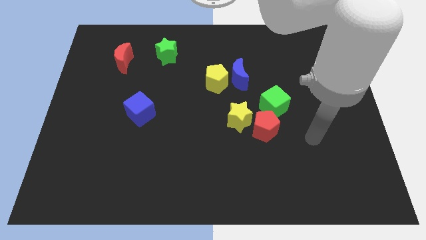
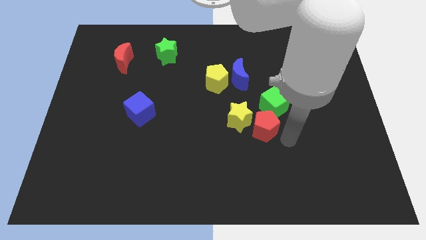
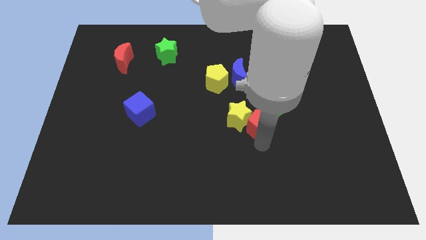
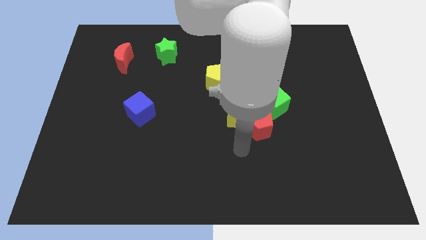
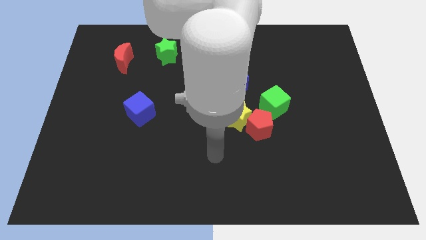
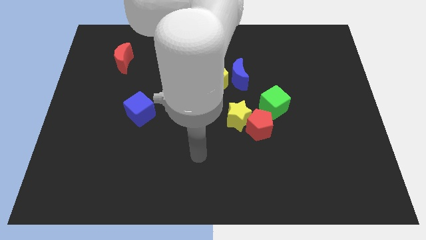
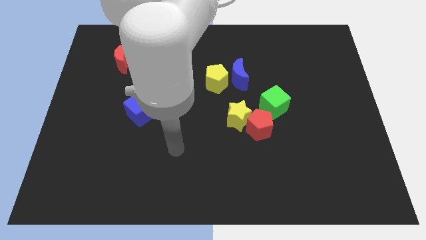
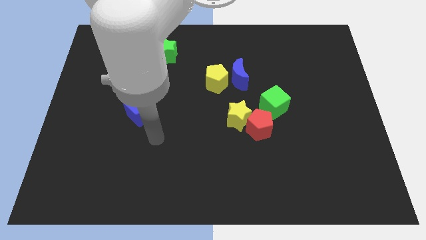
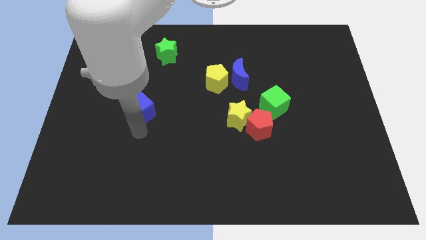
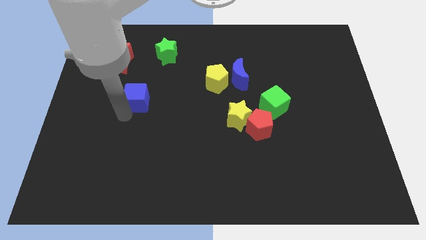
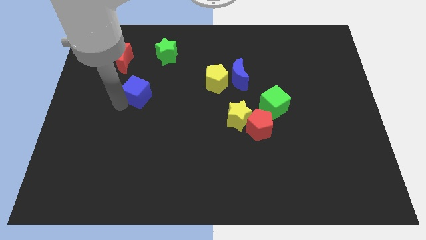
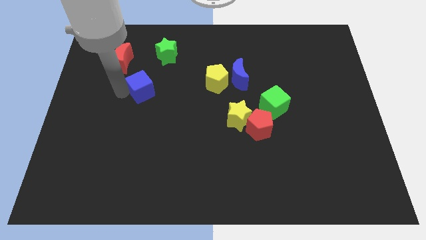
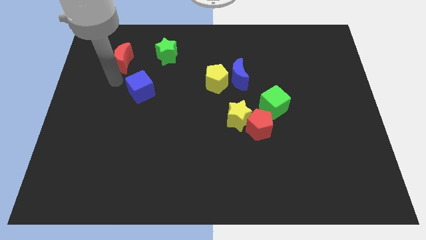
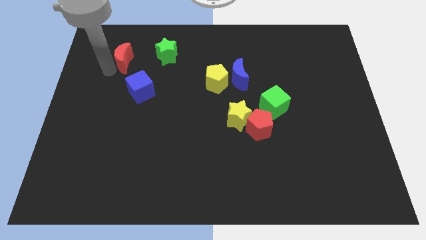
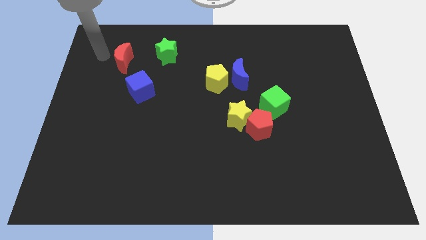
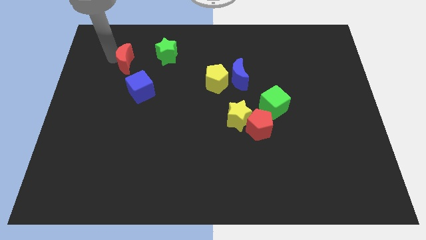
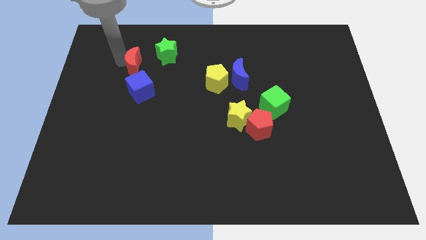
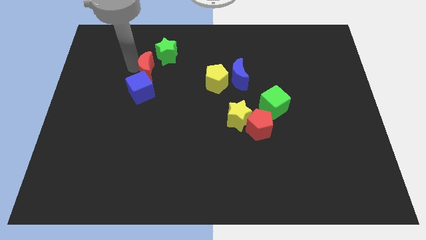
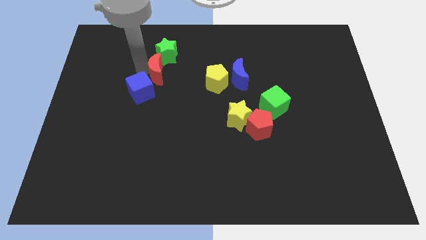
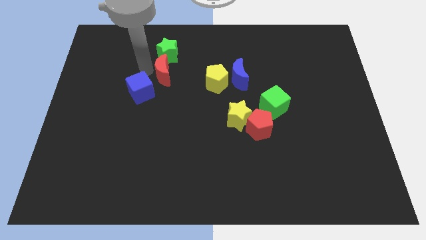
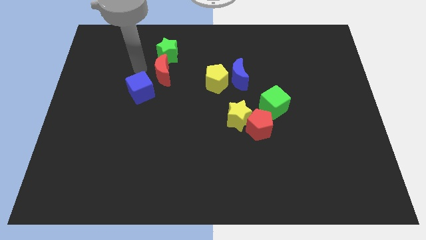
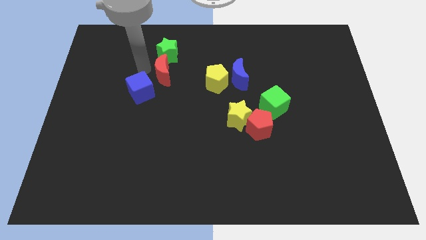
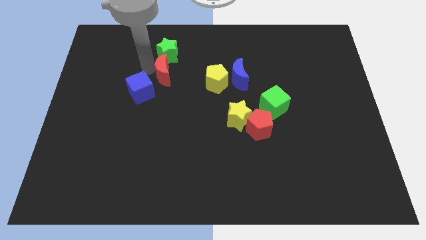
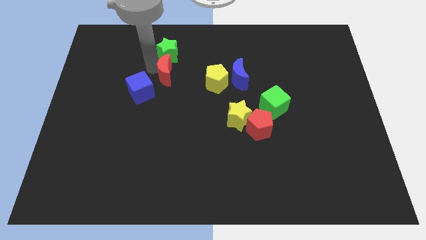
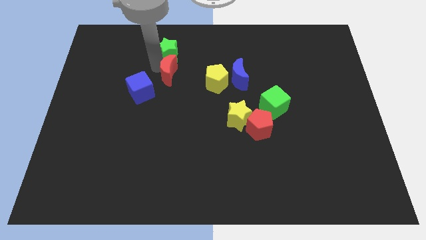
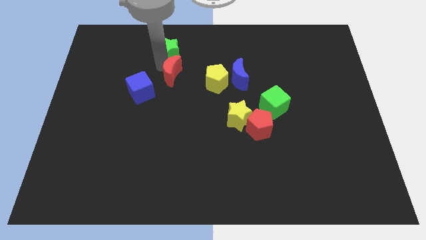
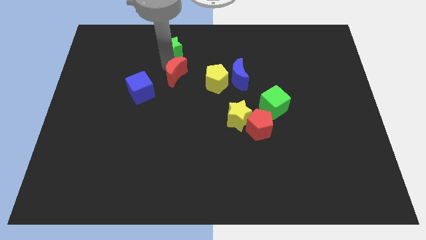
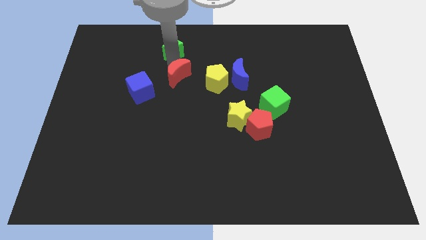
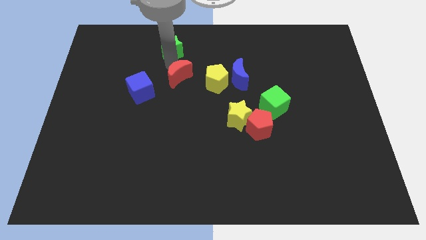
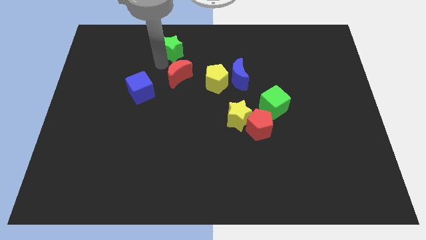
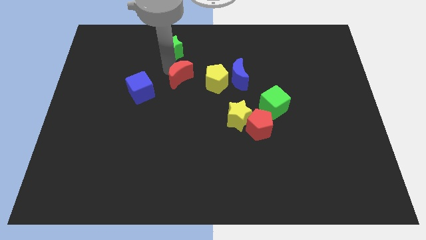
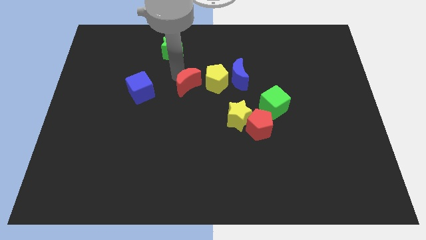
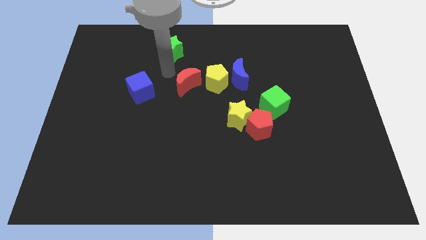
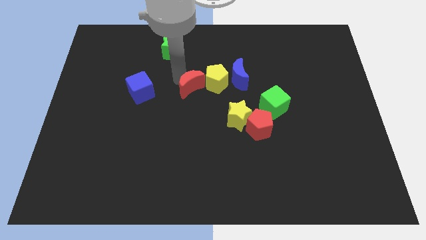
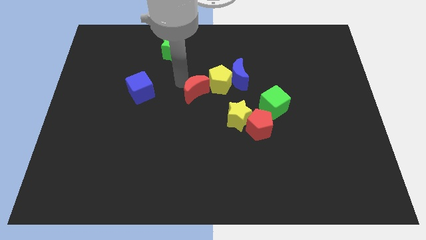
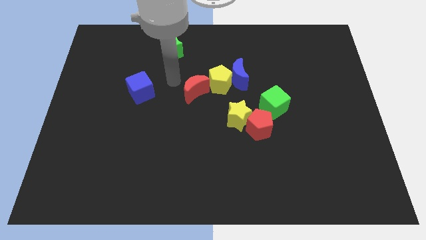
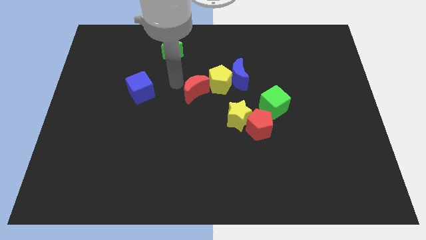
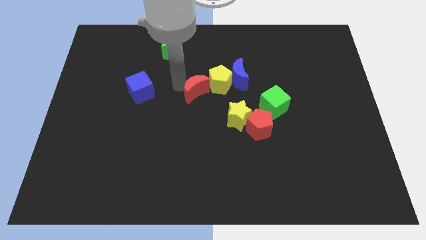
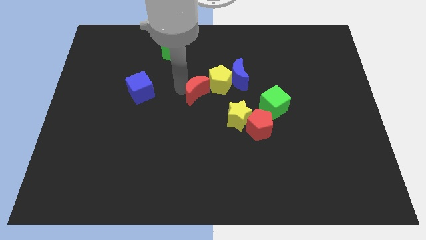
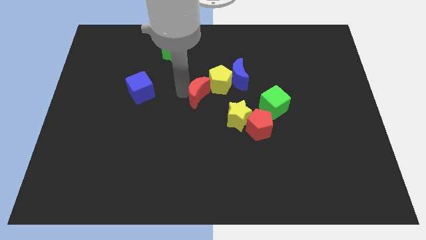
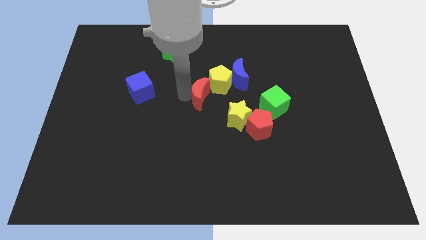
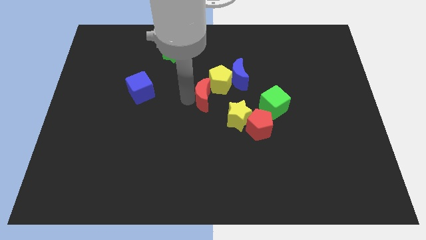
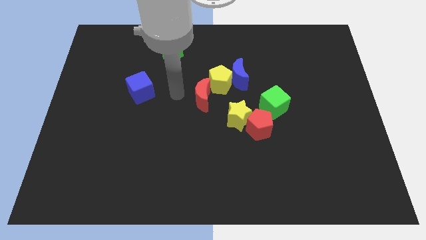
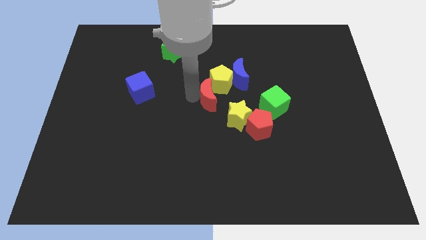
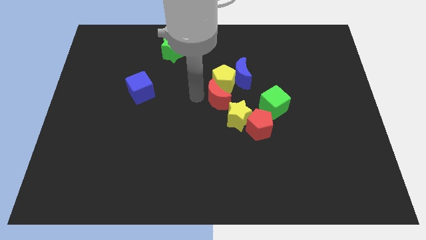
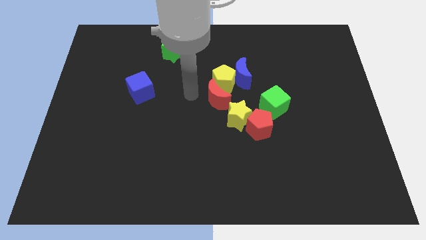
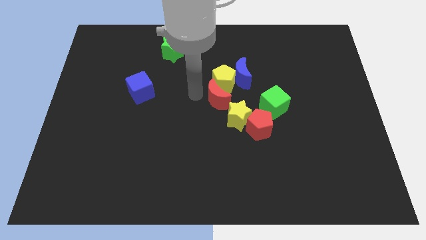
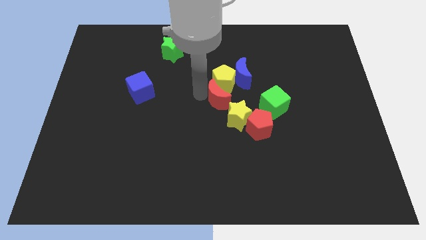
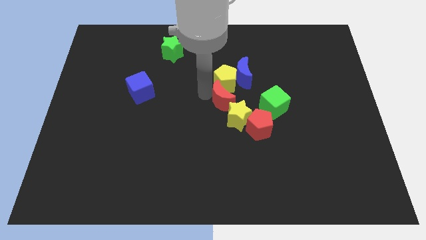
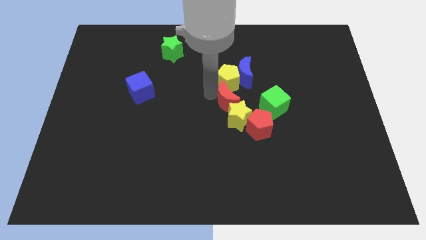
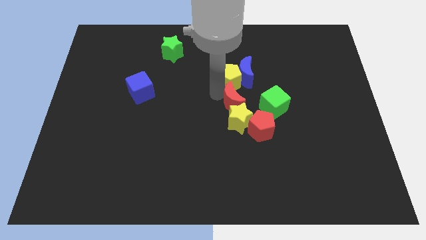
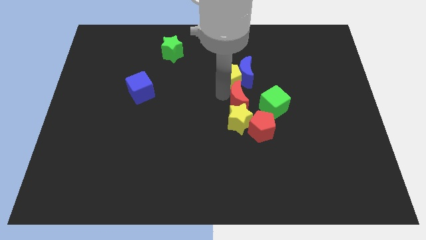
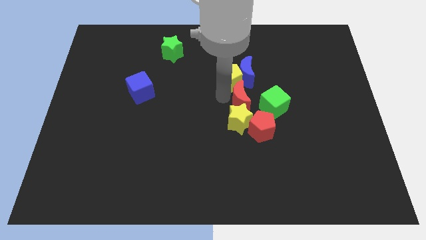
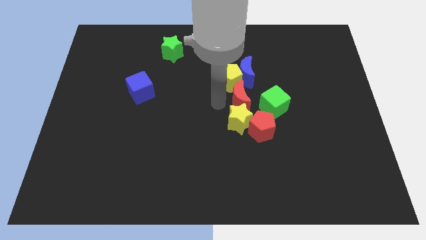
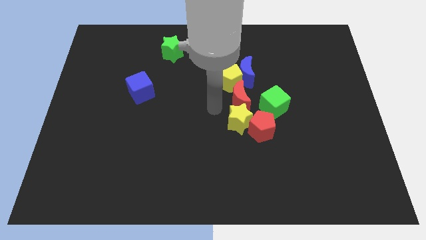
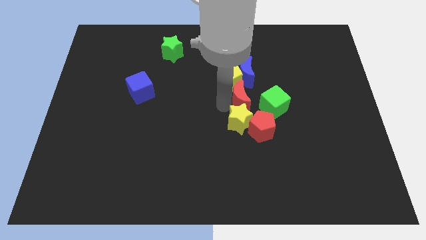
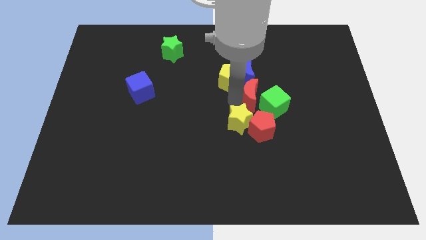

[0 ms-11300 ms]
put the red moon to the green cube

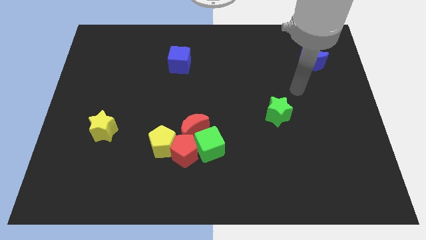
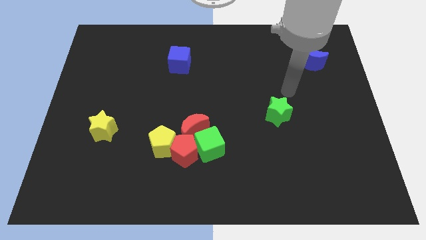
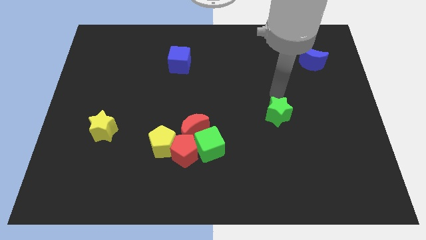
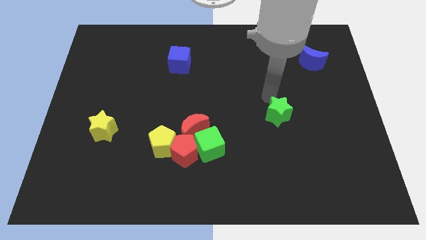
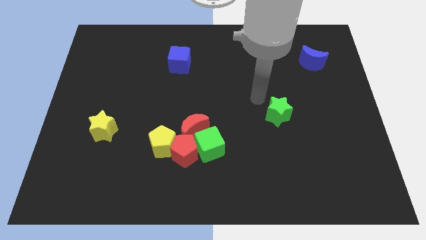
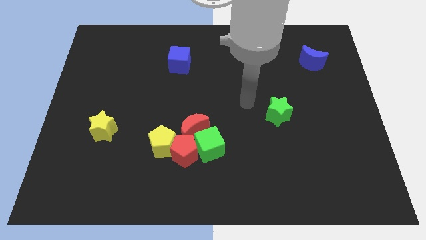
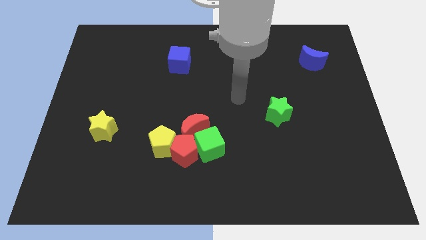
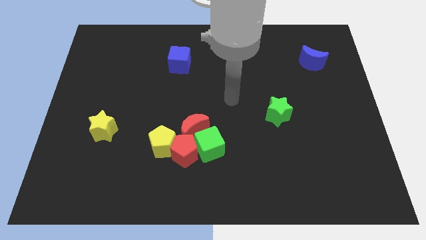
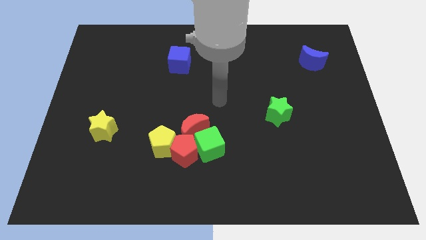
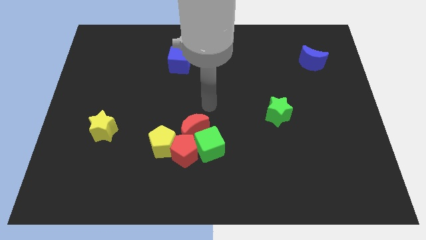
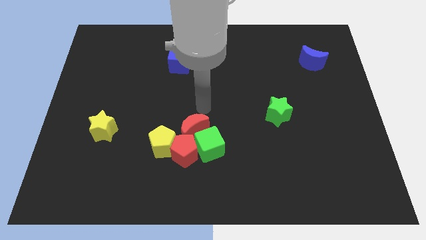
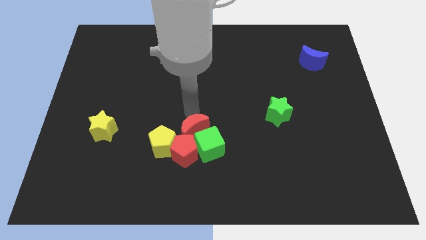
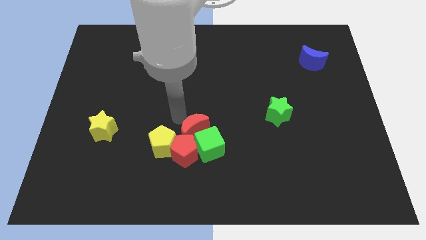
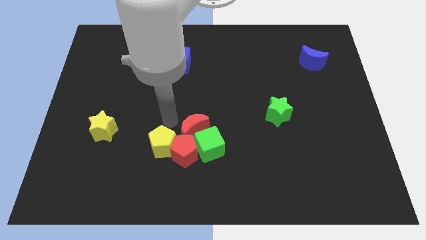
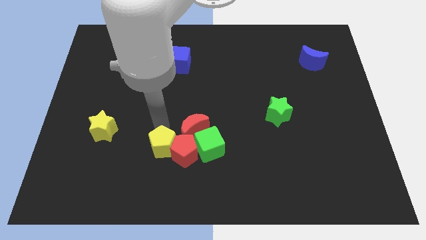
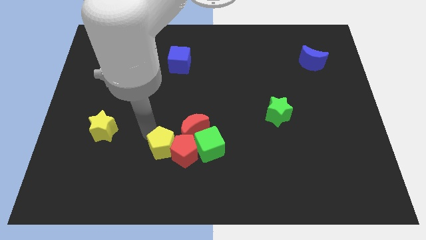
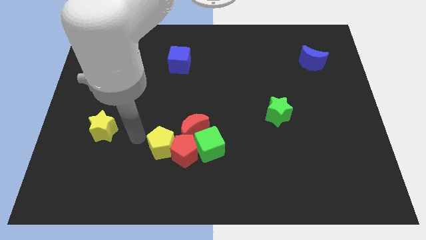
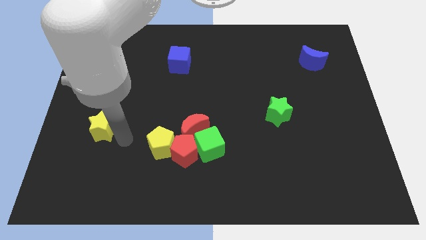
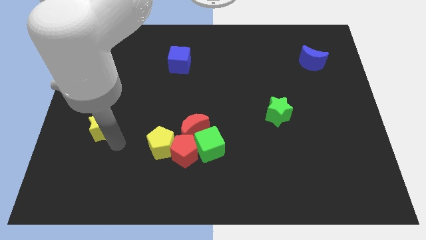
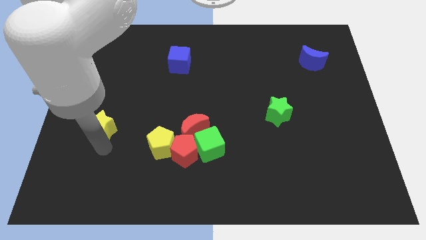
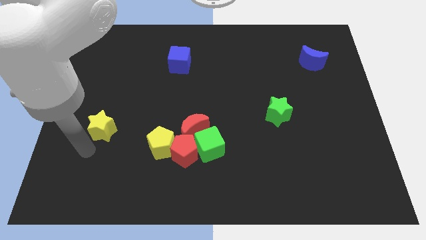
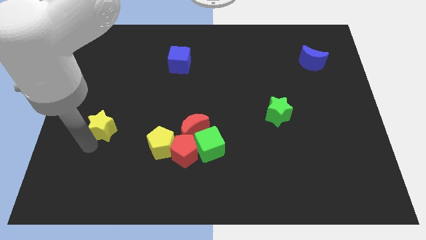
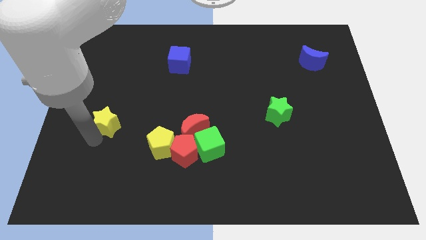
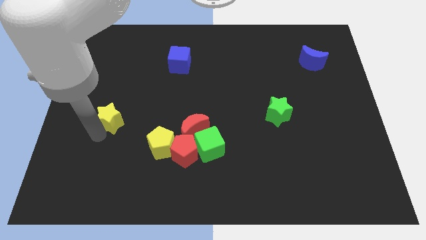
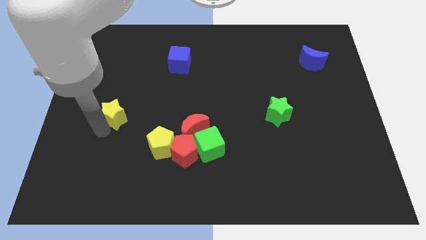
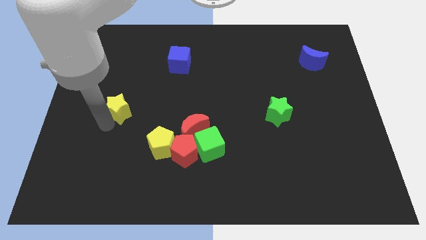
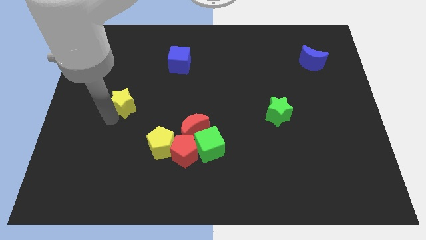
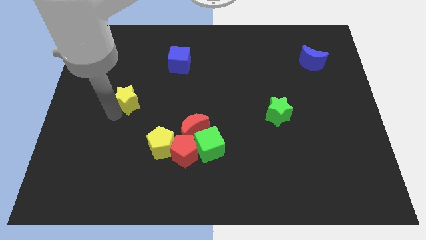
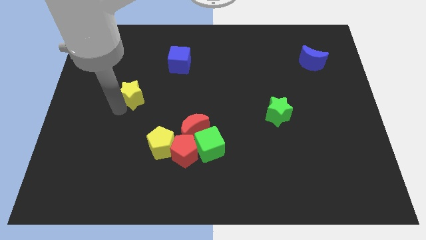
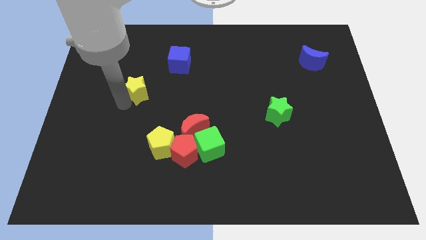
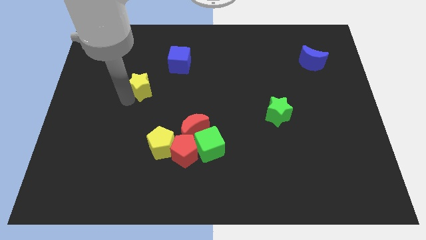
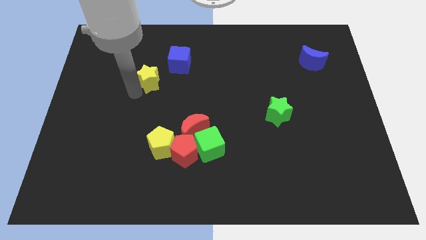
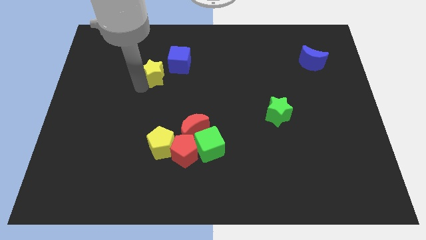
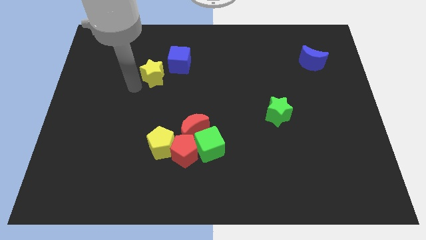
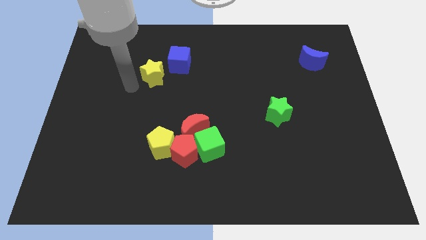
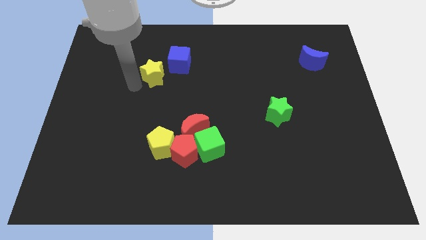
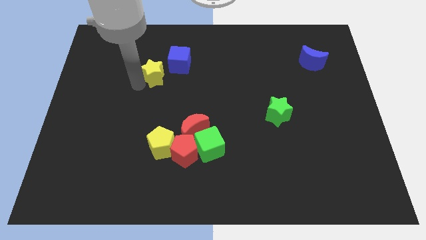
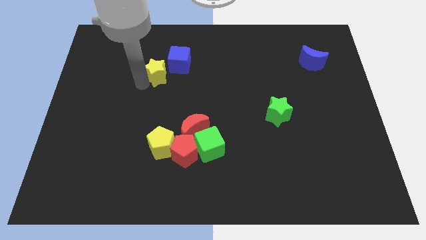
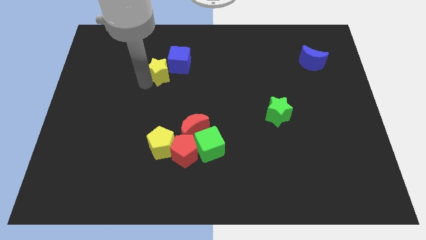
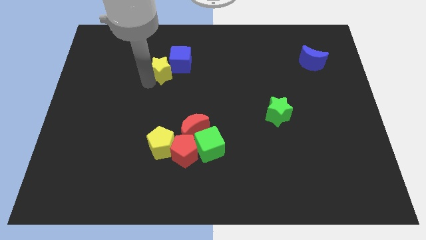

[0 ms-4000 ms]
move the yellow star towards the blue cube
